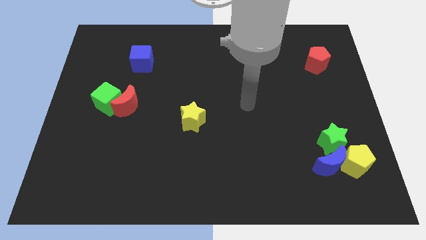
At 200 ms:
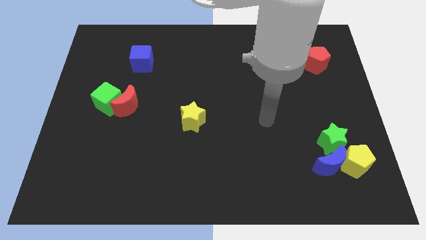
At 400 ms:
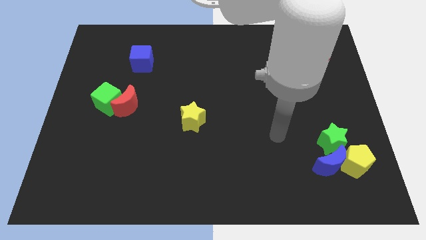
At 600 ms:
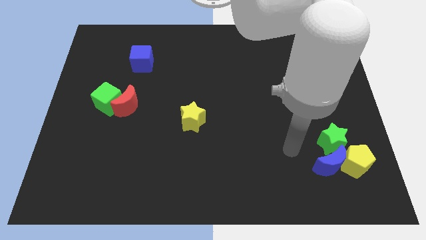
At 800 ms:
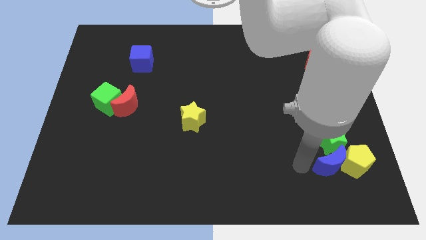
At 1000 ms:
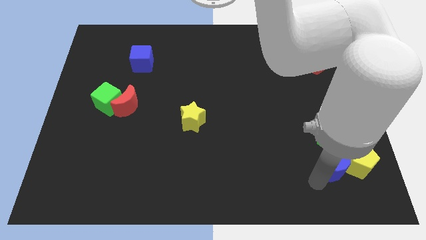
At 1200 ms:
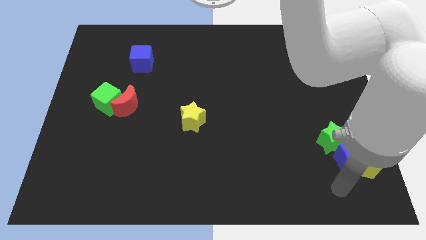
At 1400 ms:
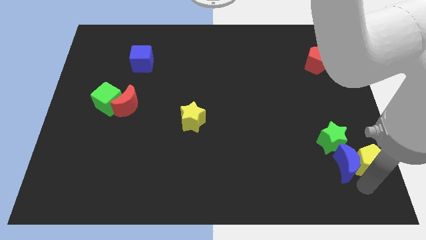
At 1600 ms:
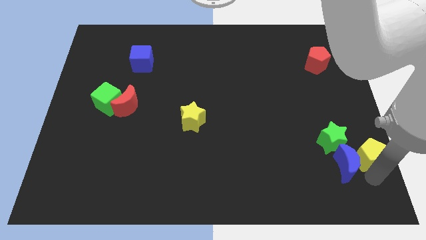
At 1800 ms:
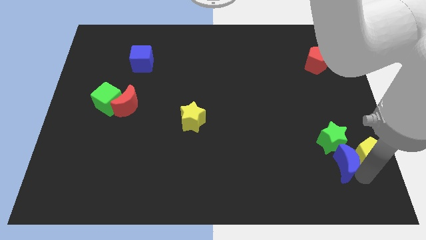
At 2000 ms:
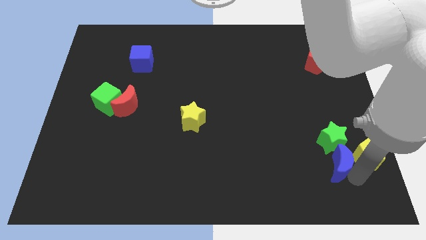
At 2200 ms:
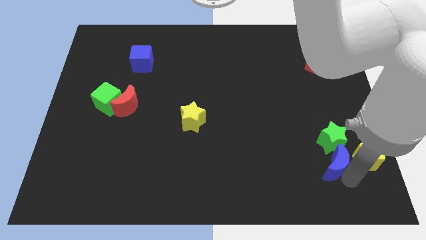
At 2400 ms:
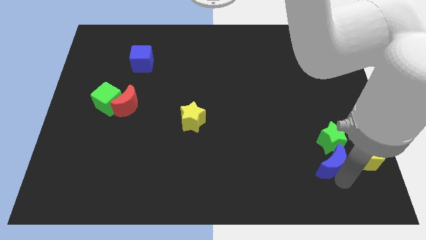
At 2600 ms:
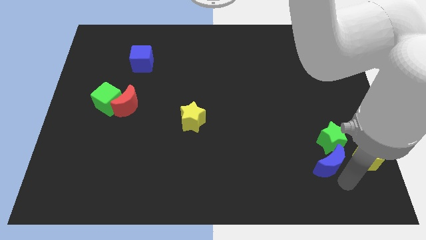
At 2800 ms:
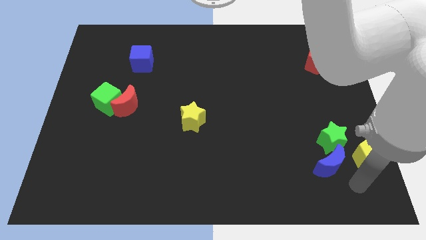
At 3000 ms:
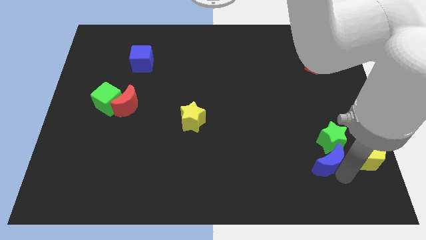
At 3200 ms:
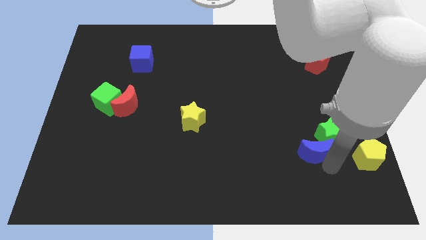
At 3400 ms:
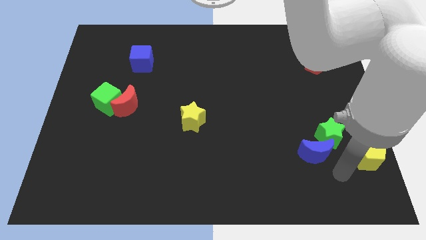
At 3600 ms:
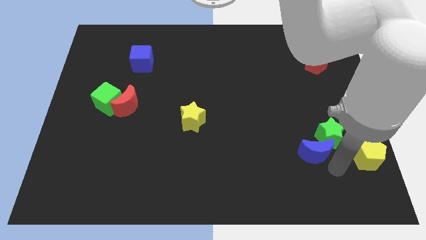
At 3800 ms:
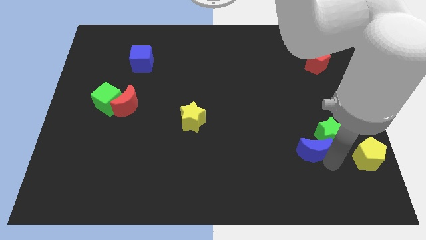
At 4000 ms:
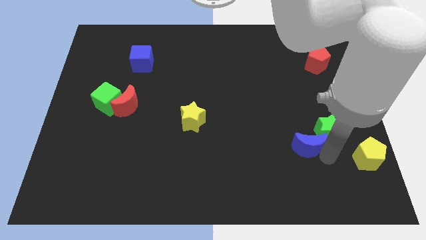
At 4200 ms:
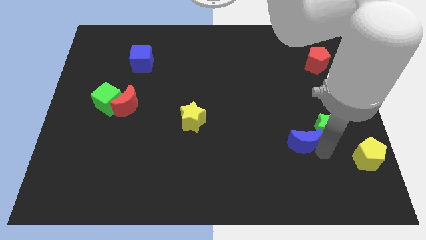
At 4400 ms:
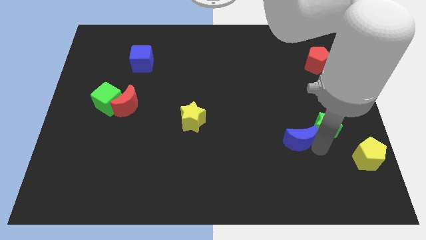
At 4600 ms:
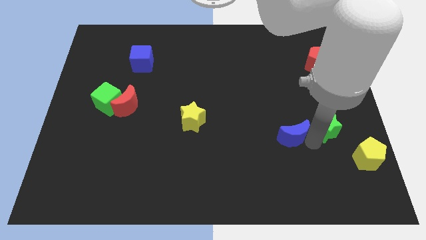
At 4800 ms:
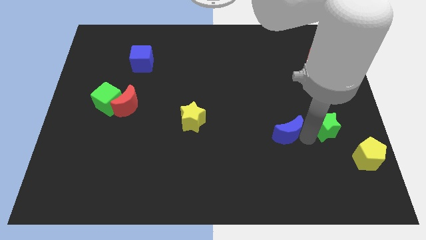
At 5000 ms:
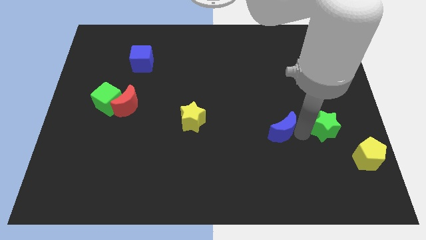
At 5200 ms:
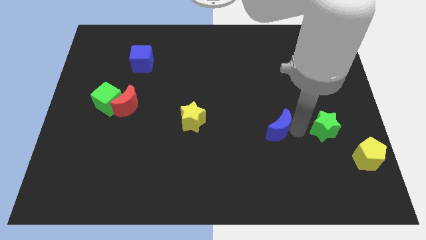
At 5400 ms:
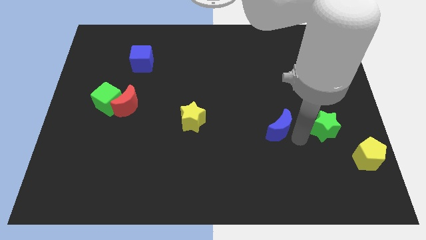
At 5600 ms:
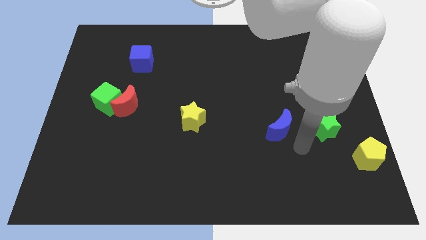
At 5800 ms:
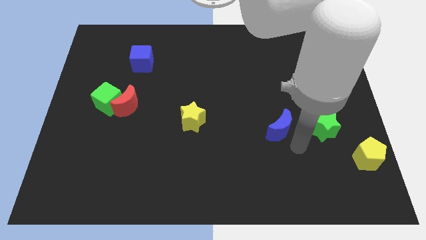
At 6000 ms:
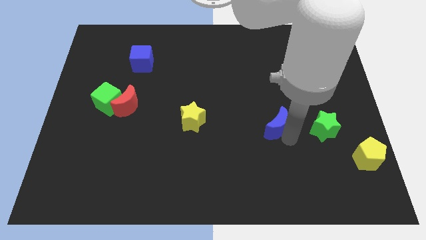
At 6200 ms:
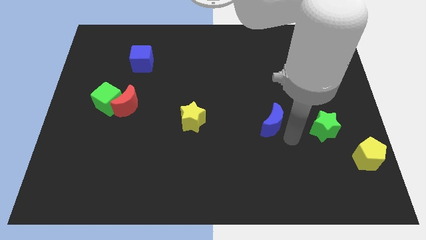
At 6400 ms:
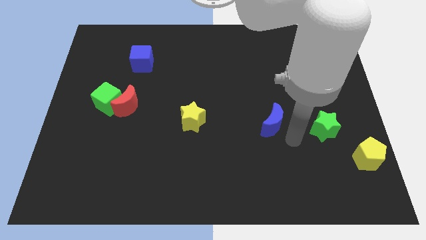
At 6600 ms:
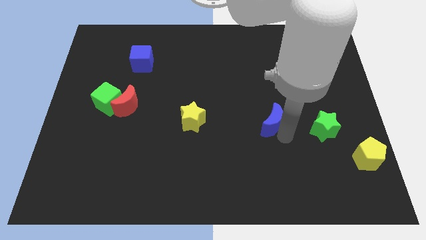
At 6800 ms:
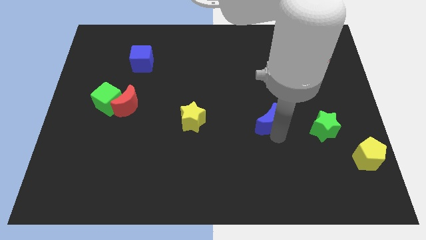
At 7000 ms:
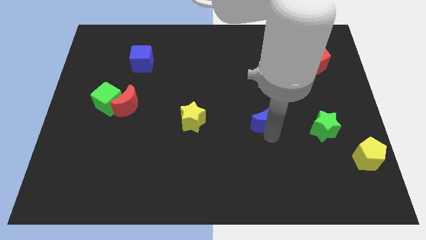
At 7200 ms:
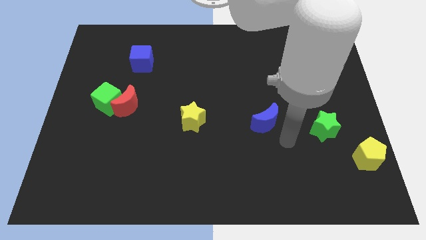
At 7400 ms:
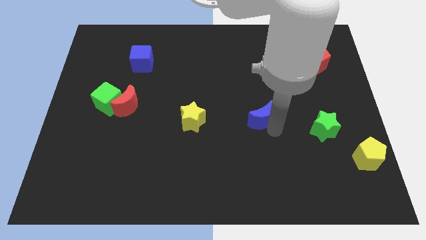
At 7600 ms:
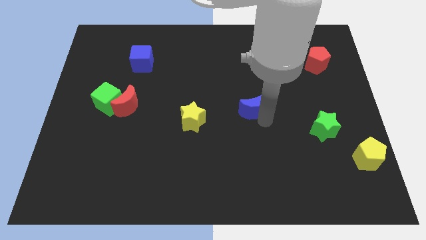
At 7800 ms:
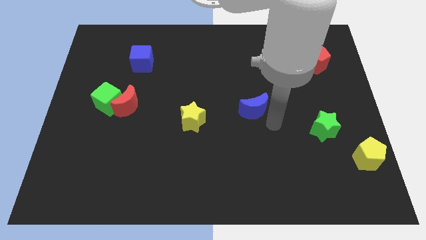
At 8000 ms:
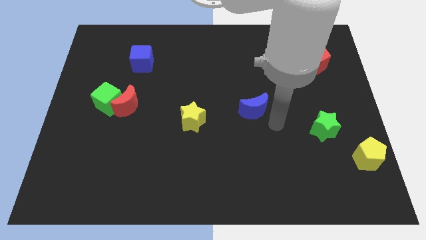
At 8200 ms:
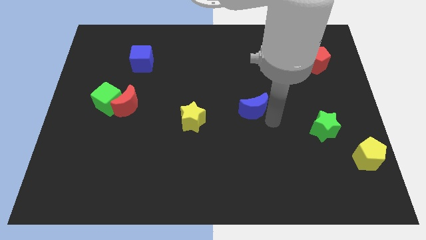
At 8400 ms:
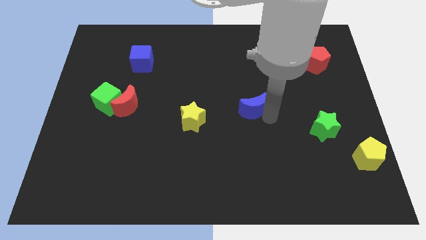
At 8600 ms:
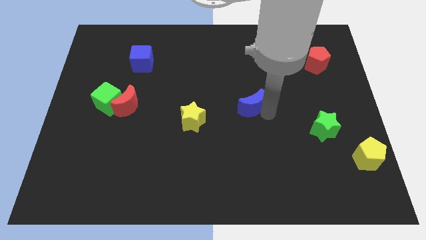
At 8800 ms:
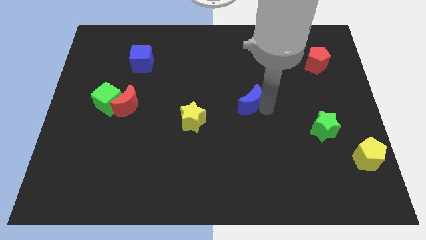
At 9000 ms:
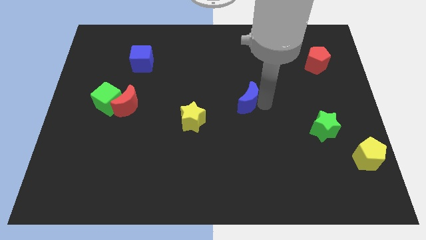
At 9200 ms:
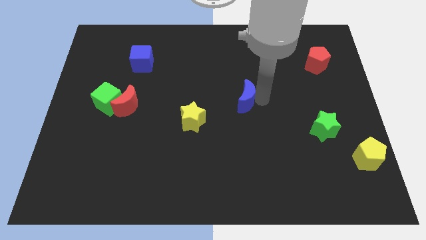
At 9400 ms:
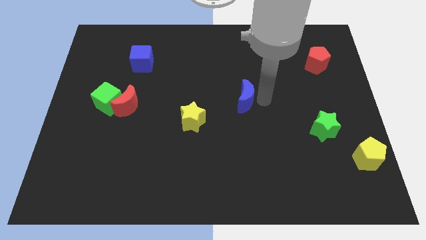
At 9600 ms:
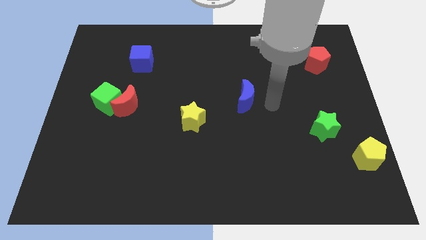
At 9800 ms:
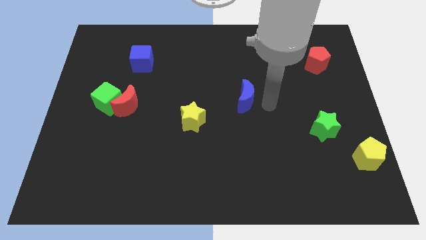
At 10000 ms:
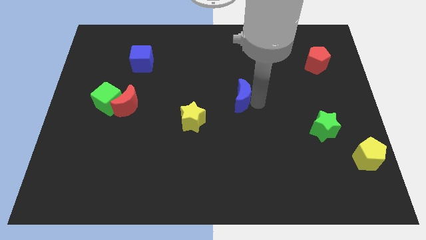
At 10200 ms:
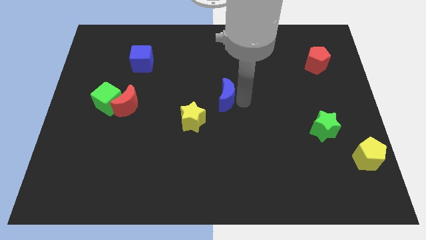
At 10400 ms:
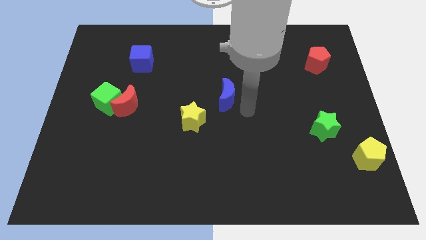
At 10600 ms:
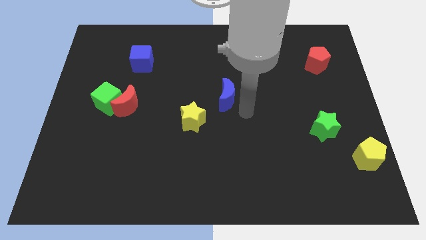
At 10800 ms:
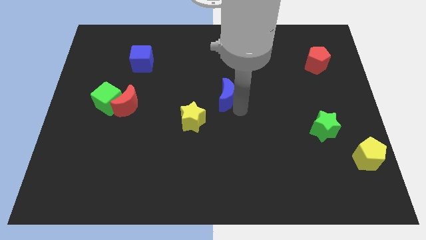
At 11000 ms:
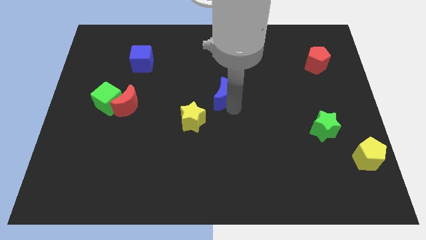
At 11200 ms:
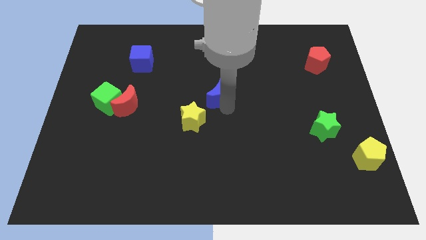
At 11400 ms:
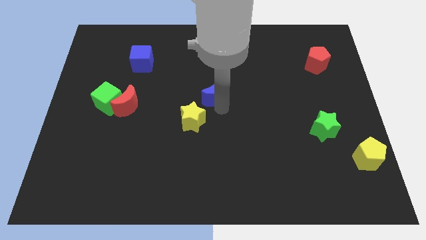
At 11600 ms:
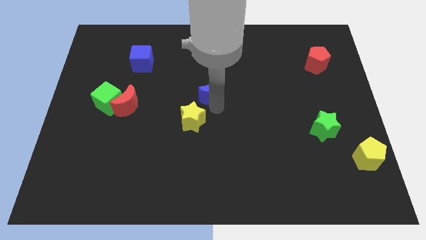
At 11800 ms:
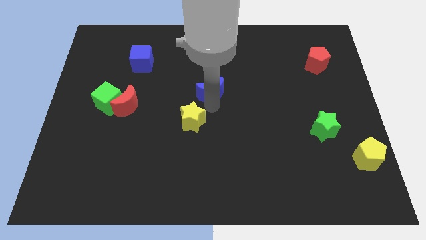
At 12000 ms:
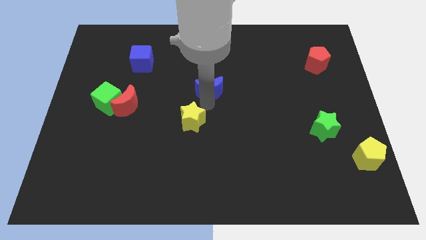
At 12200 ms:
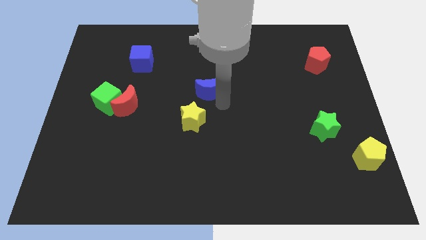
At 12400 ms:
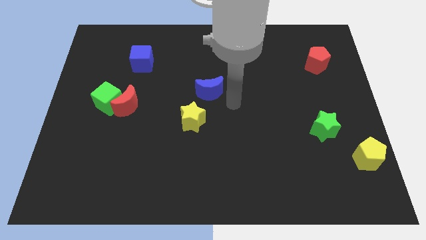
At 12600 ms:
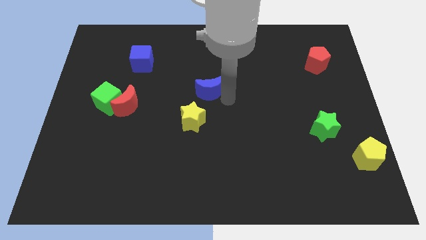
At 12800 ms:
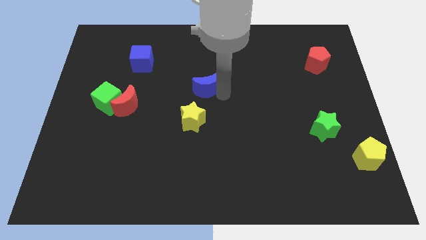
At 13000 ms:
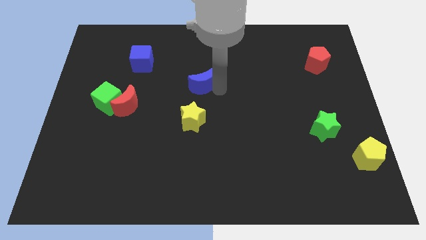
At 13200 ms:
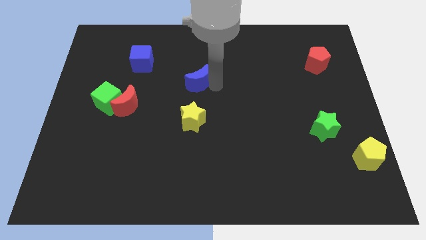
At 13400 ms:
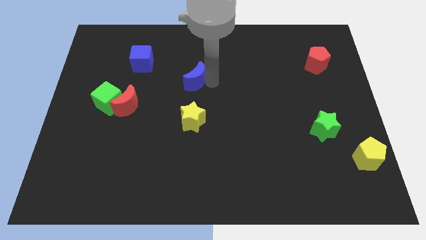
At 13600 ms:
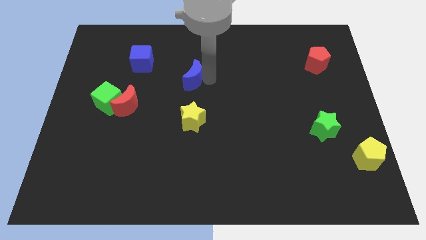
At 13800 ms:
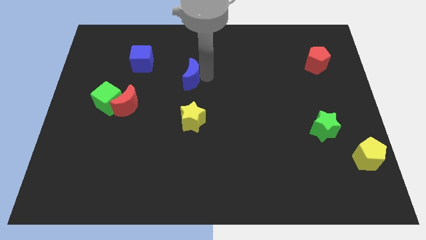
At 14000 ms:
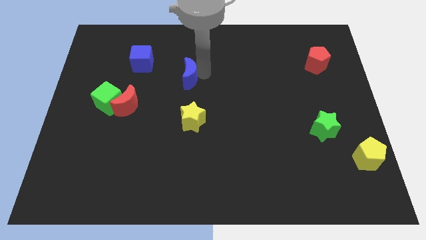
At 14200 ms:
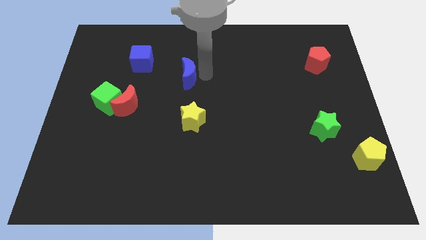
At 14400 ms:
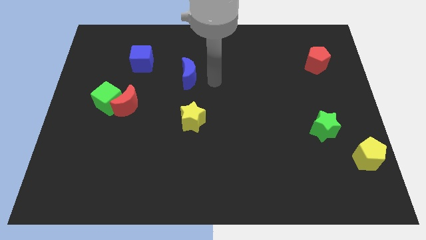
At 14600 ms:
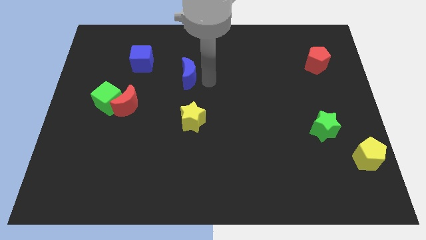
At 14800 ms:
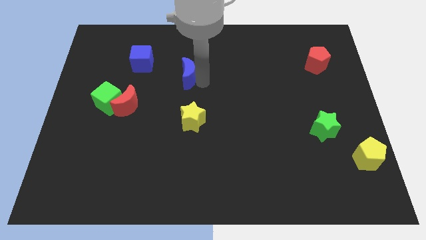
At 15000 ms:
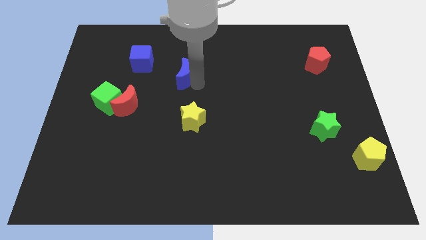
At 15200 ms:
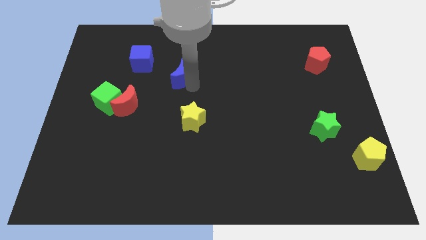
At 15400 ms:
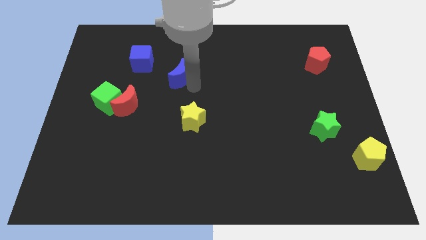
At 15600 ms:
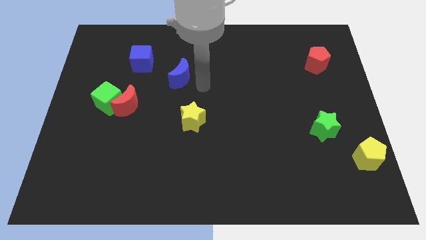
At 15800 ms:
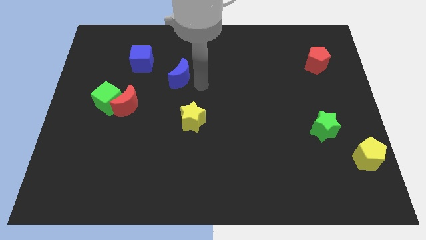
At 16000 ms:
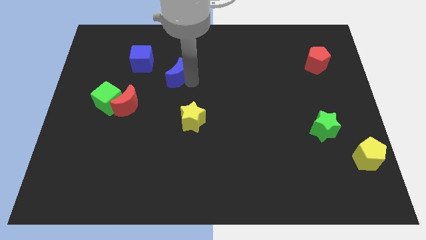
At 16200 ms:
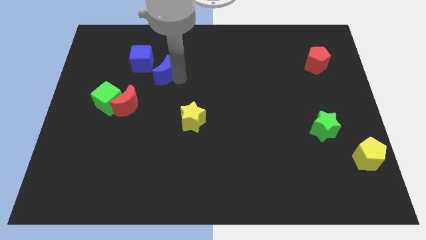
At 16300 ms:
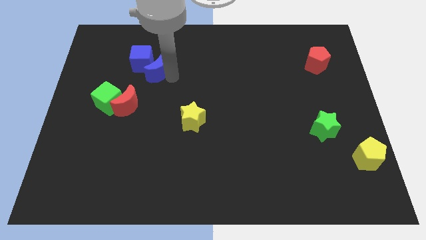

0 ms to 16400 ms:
move the blue moon towards the blue cube
